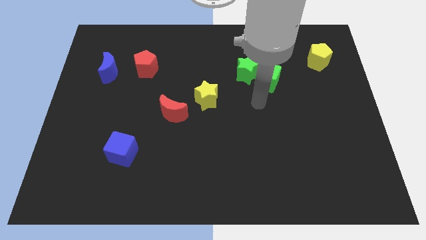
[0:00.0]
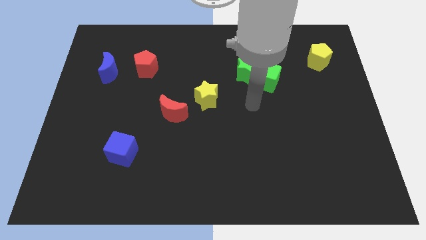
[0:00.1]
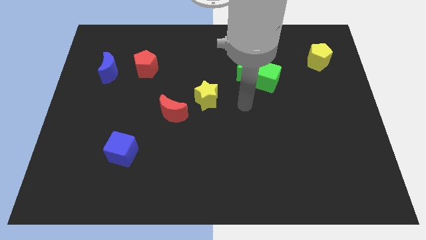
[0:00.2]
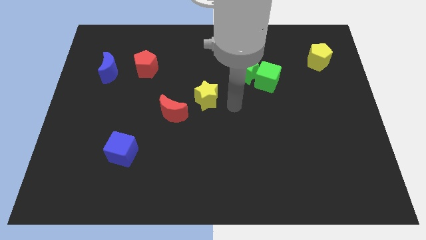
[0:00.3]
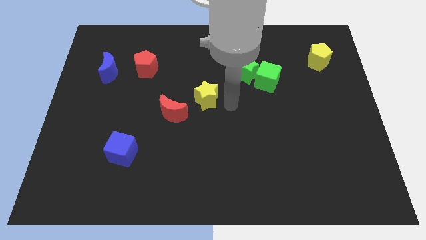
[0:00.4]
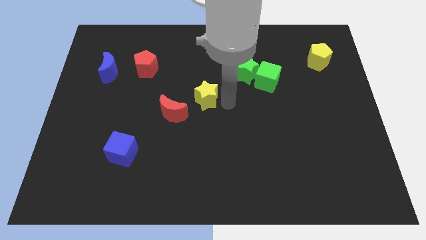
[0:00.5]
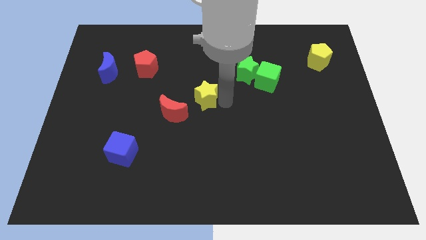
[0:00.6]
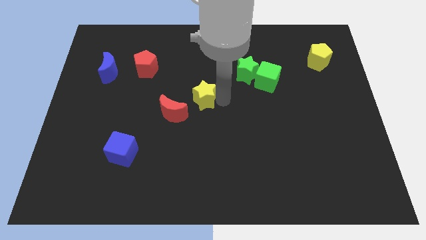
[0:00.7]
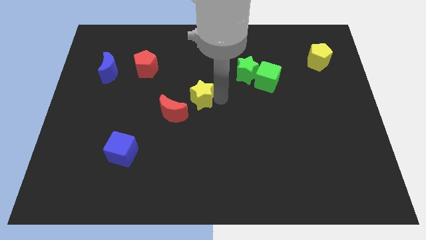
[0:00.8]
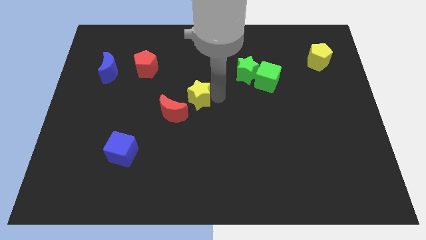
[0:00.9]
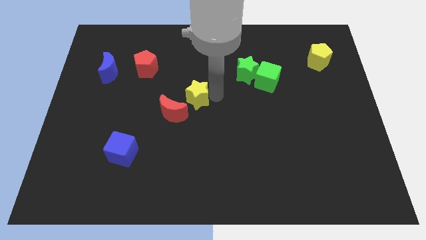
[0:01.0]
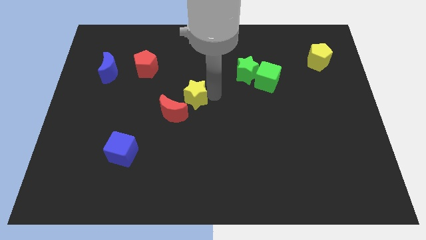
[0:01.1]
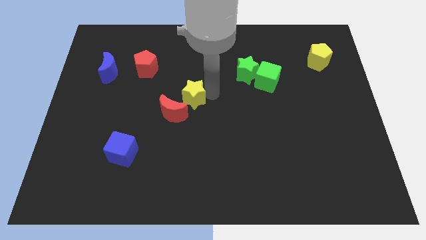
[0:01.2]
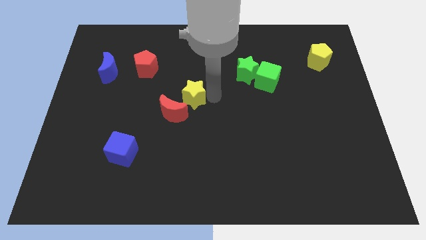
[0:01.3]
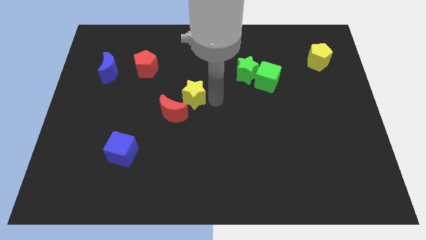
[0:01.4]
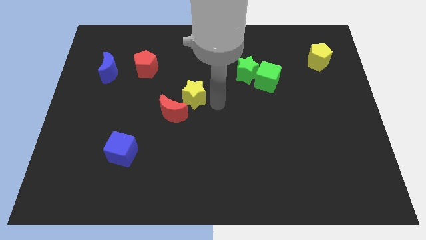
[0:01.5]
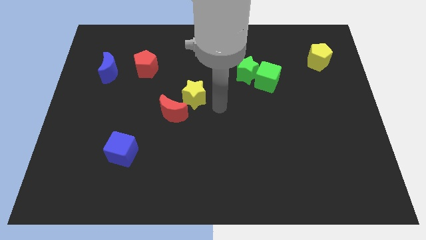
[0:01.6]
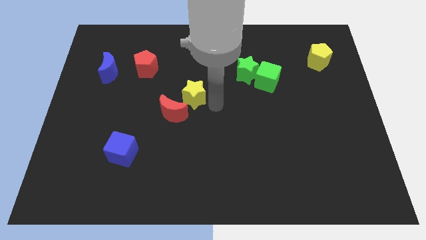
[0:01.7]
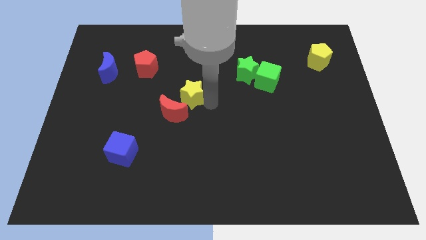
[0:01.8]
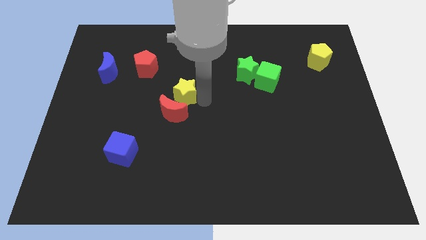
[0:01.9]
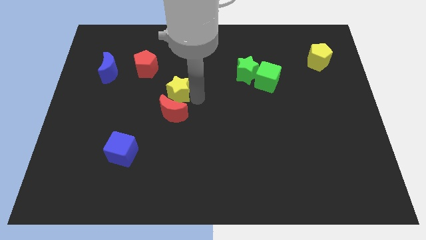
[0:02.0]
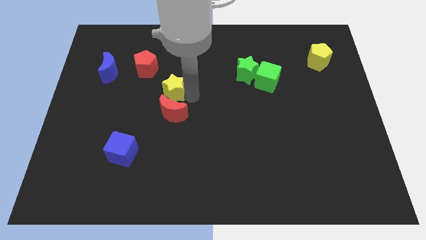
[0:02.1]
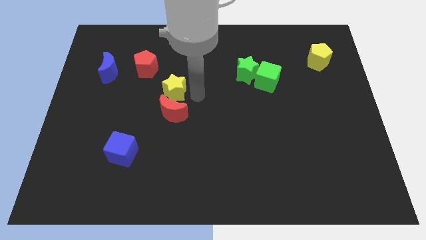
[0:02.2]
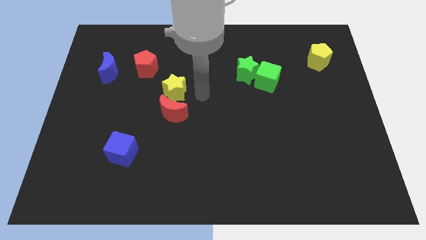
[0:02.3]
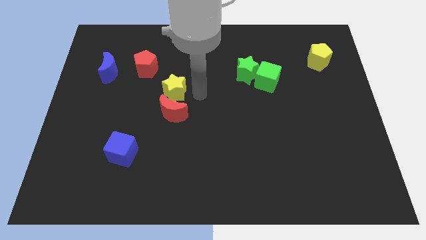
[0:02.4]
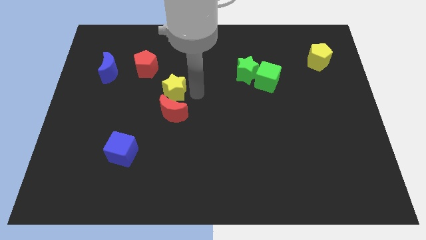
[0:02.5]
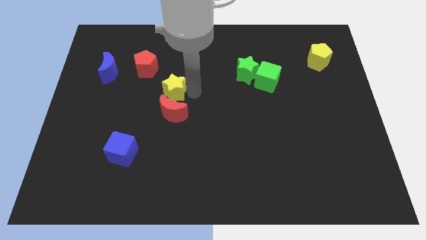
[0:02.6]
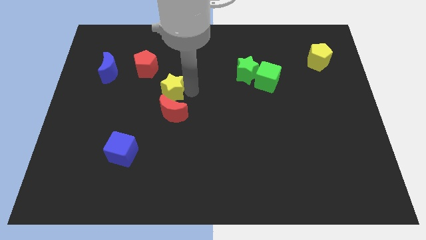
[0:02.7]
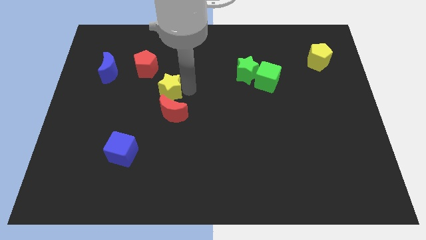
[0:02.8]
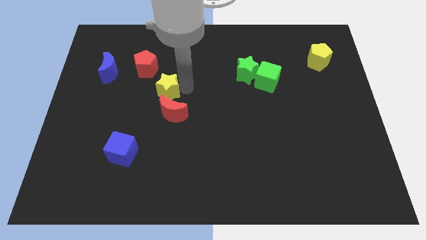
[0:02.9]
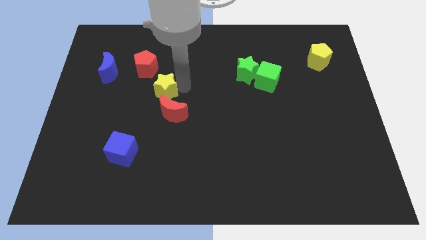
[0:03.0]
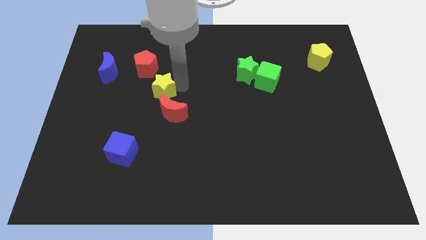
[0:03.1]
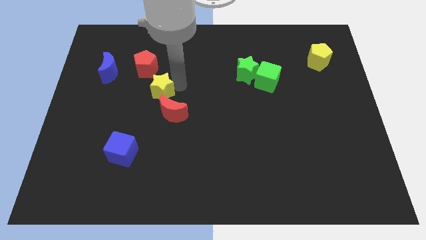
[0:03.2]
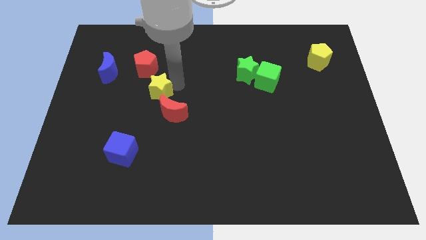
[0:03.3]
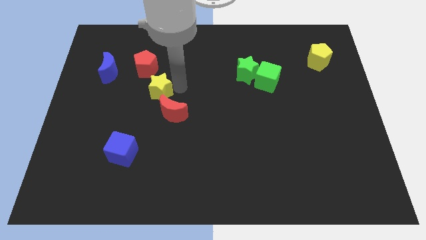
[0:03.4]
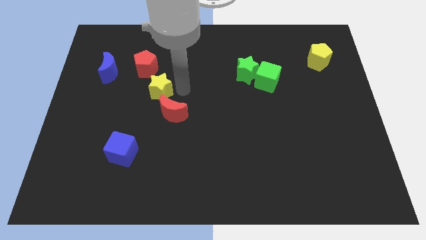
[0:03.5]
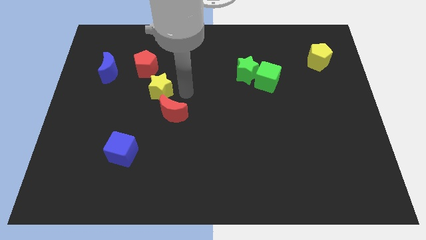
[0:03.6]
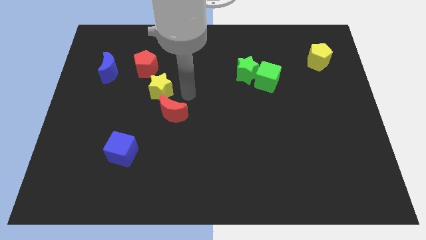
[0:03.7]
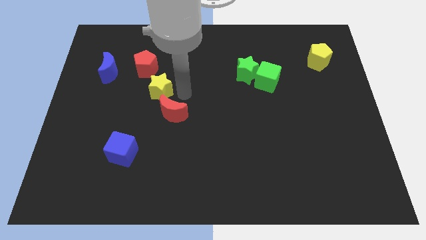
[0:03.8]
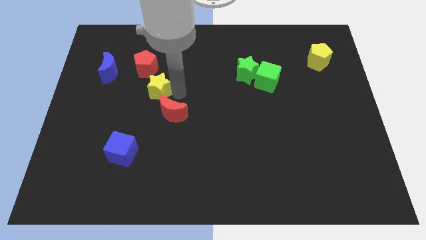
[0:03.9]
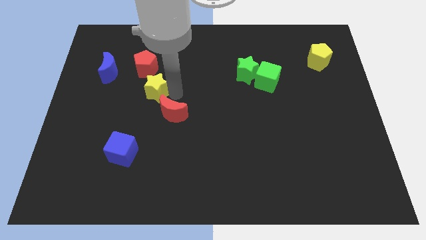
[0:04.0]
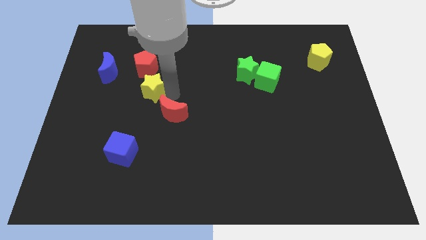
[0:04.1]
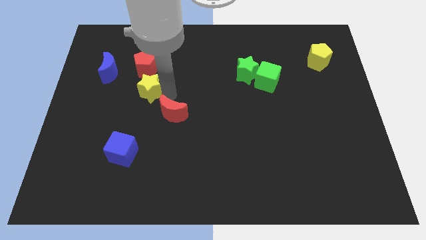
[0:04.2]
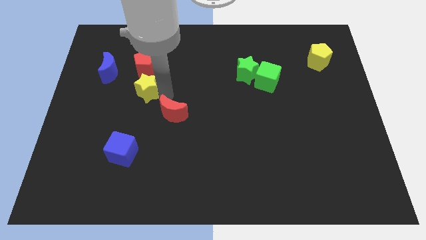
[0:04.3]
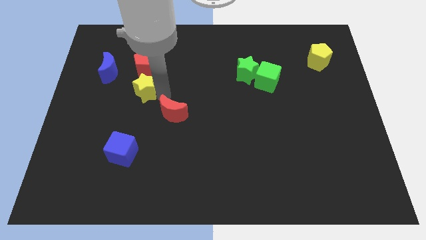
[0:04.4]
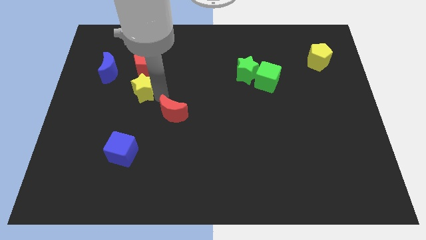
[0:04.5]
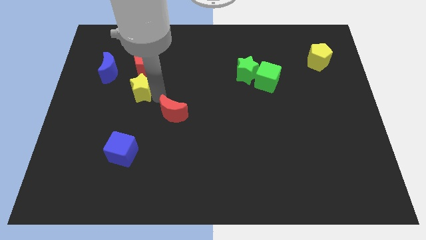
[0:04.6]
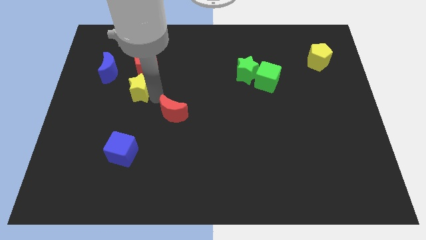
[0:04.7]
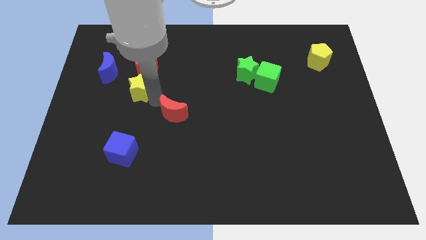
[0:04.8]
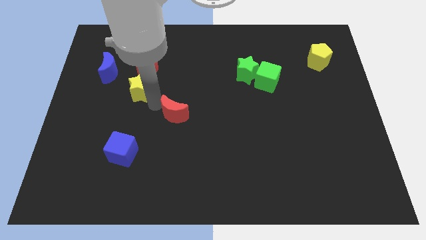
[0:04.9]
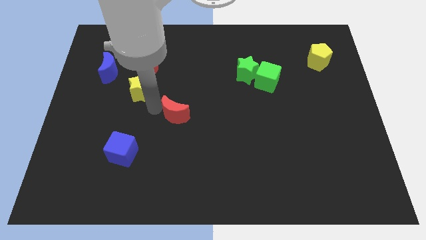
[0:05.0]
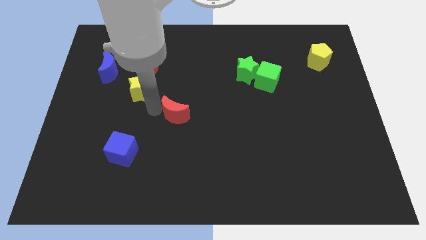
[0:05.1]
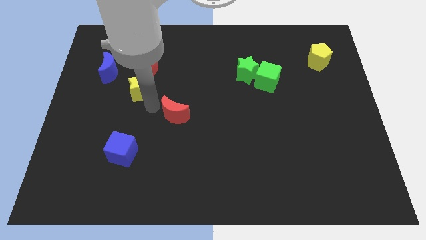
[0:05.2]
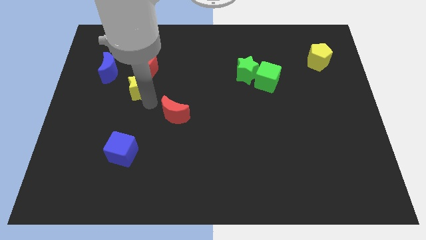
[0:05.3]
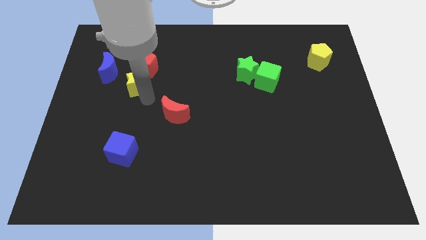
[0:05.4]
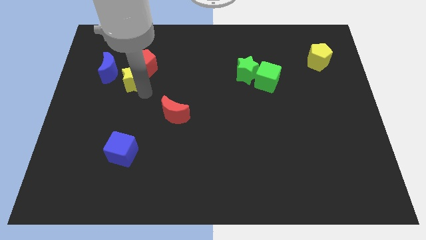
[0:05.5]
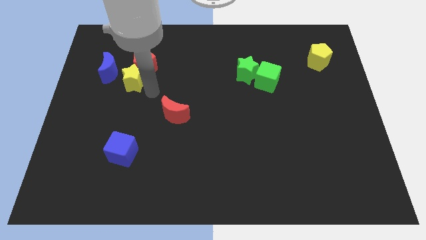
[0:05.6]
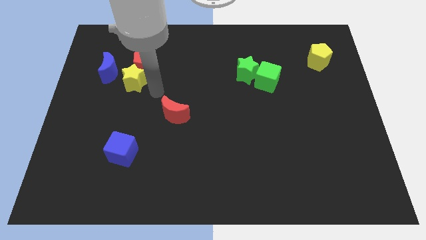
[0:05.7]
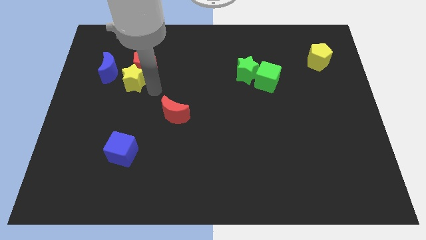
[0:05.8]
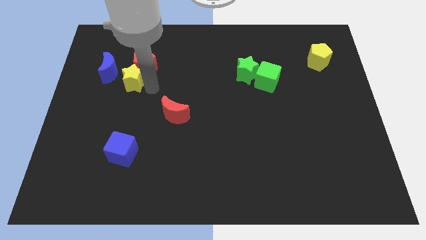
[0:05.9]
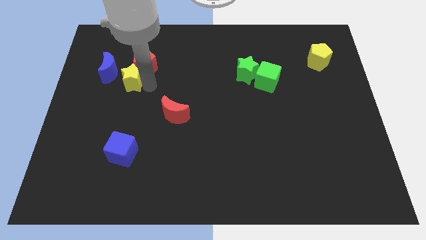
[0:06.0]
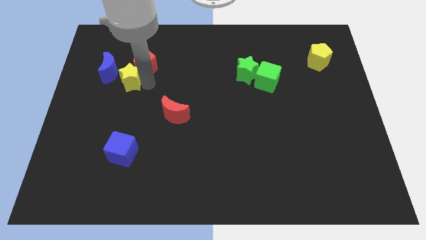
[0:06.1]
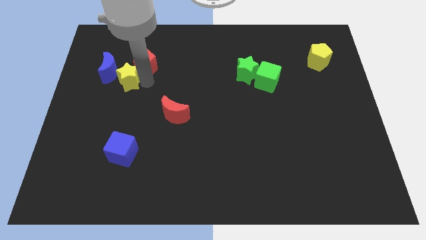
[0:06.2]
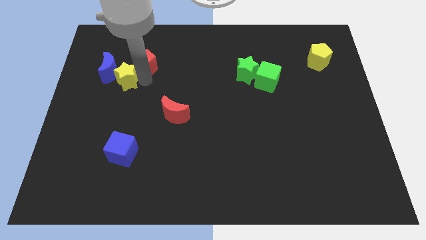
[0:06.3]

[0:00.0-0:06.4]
move the yellow star close to the blue moon

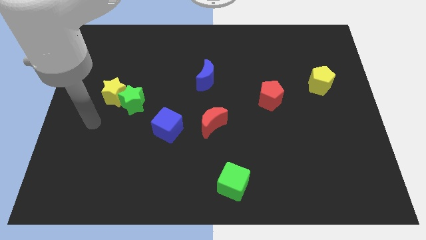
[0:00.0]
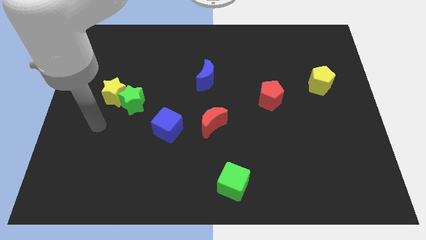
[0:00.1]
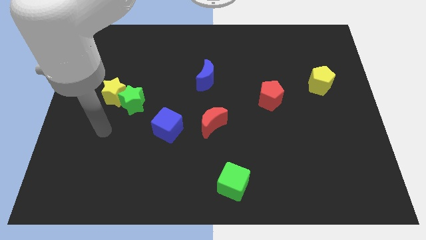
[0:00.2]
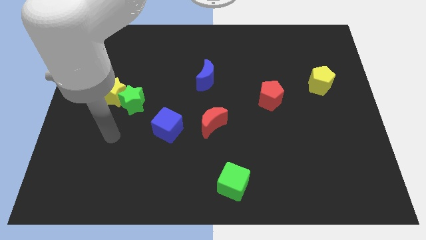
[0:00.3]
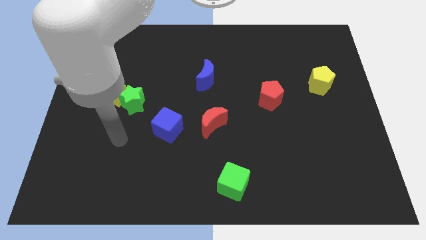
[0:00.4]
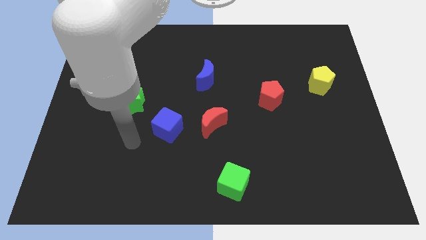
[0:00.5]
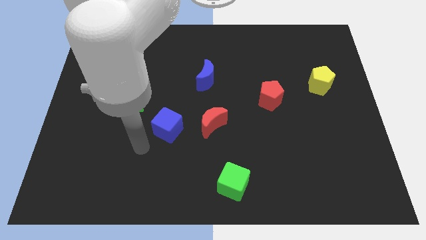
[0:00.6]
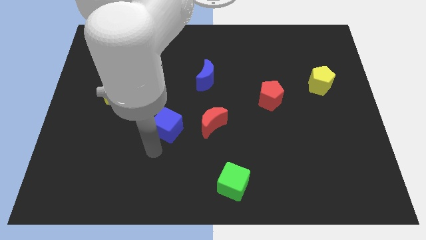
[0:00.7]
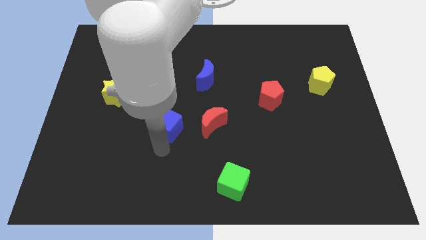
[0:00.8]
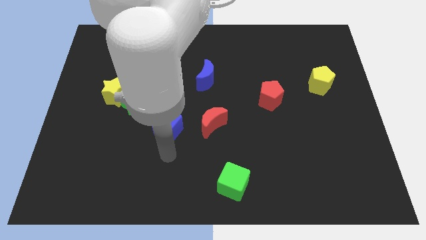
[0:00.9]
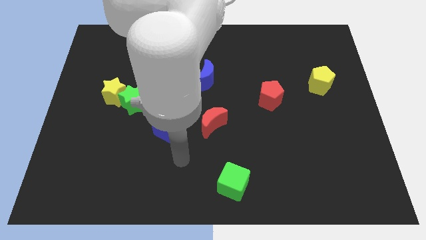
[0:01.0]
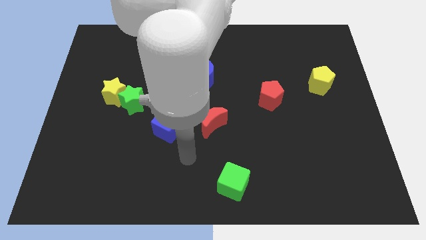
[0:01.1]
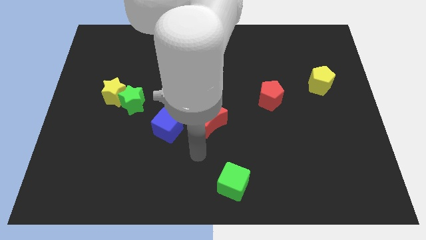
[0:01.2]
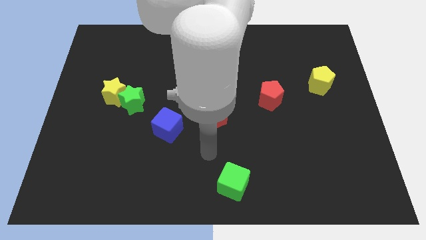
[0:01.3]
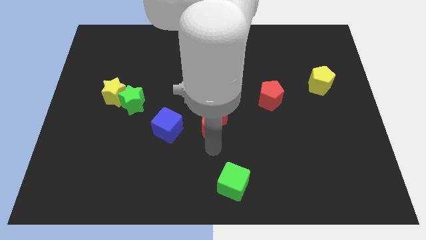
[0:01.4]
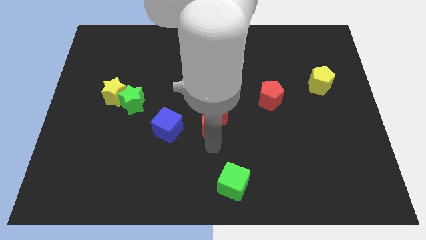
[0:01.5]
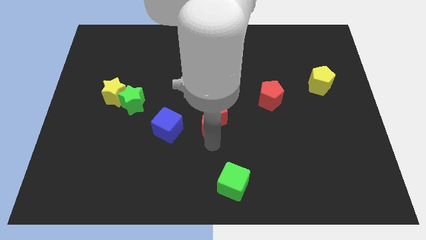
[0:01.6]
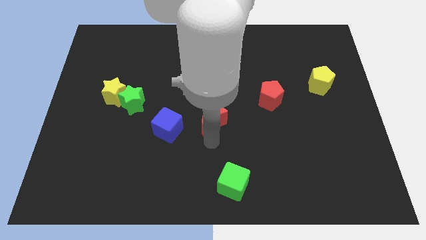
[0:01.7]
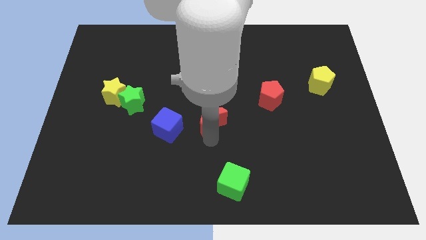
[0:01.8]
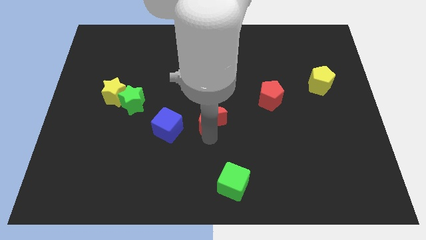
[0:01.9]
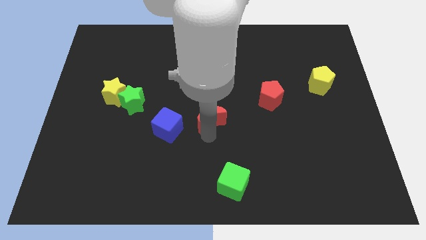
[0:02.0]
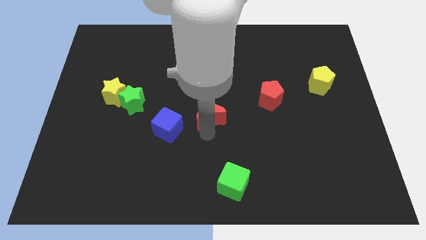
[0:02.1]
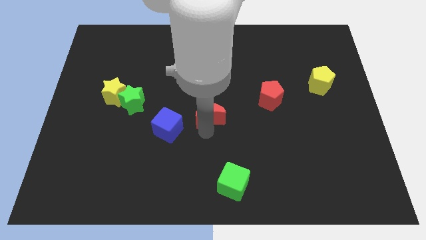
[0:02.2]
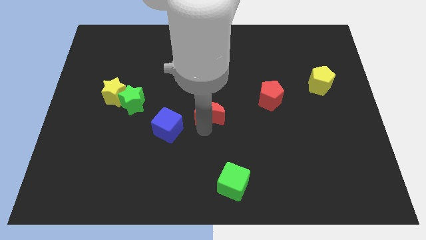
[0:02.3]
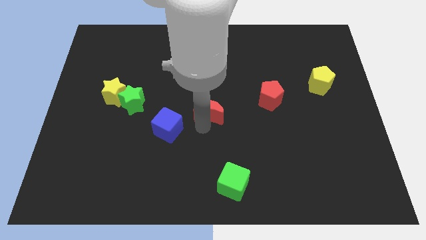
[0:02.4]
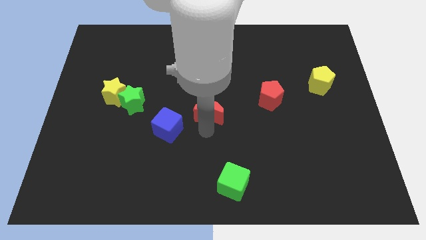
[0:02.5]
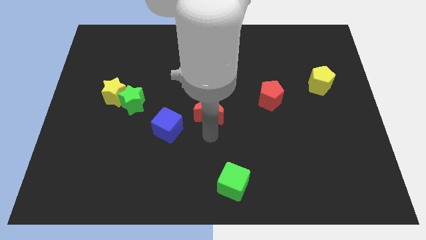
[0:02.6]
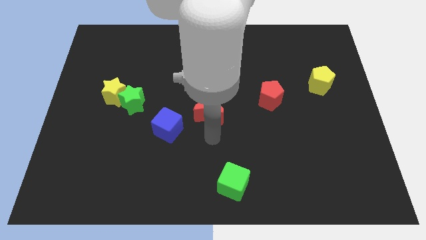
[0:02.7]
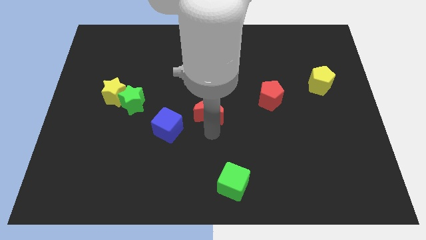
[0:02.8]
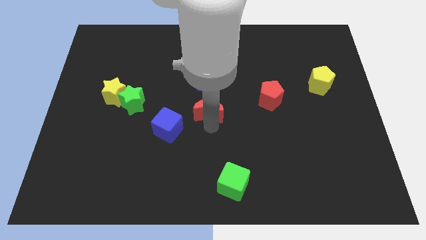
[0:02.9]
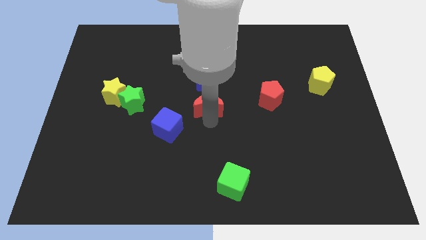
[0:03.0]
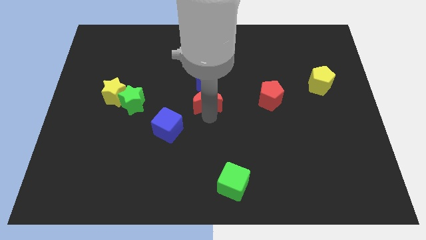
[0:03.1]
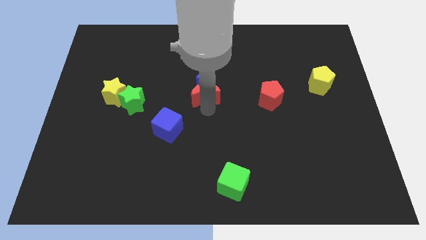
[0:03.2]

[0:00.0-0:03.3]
put the red moon towards the blue moon
